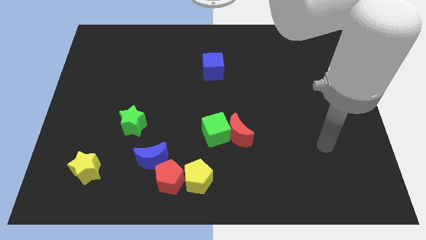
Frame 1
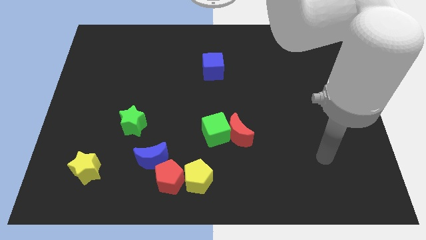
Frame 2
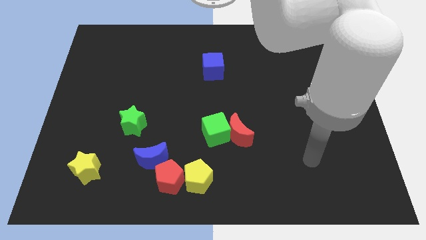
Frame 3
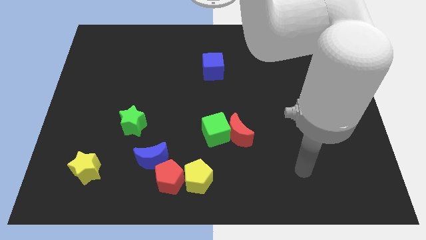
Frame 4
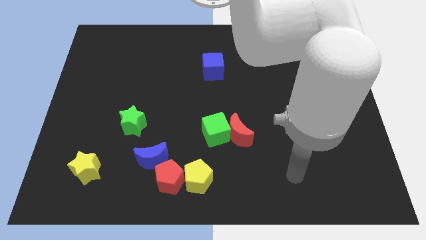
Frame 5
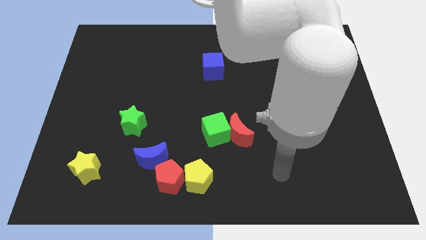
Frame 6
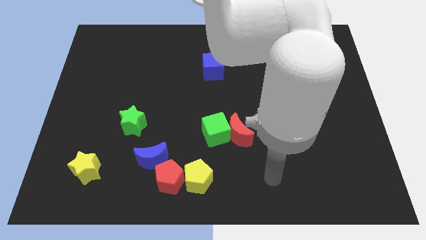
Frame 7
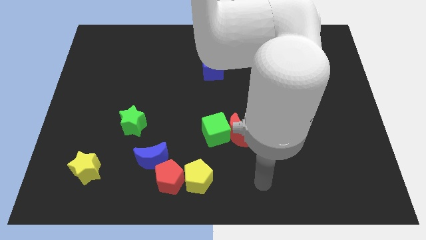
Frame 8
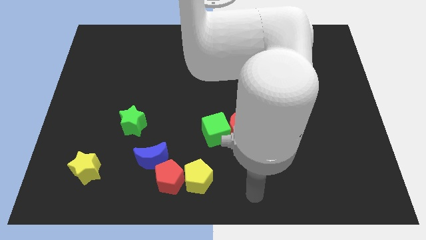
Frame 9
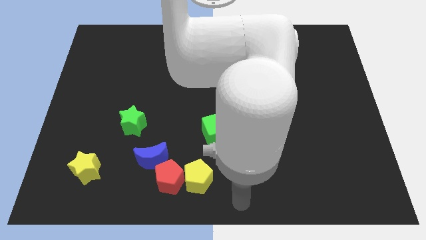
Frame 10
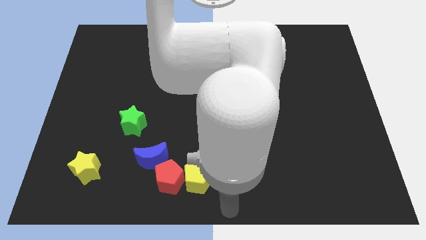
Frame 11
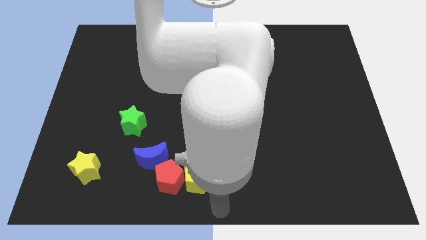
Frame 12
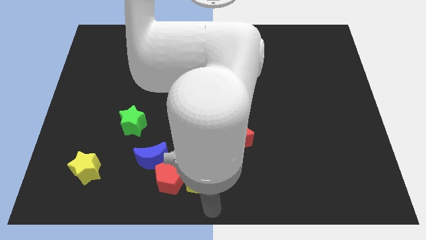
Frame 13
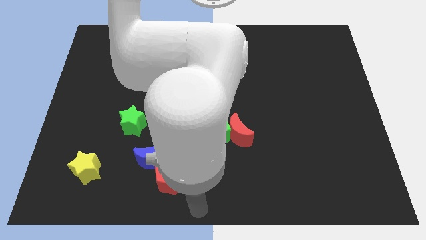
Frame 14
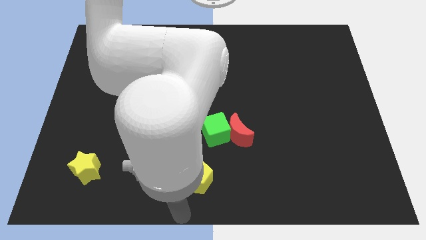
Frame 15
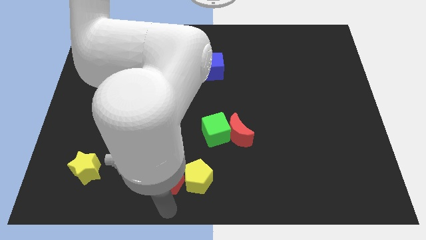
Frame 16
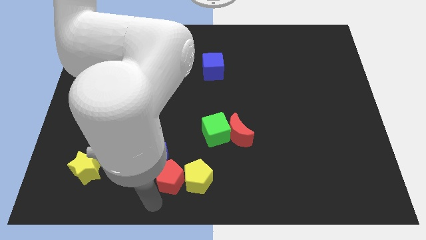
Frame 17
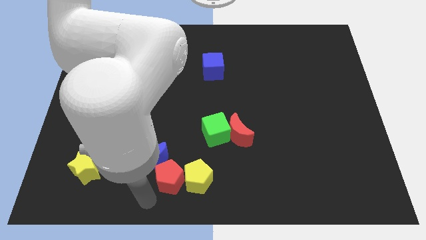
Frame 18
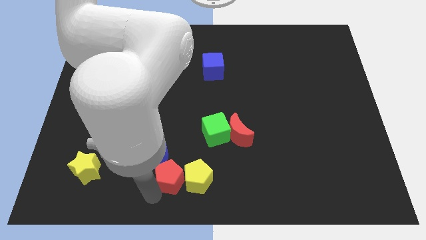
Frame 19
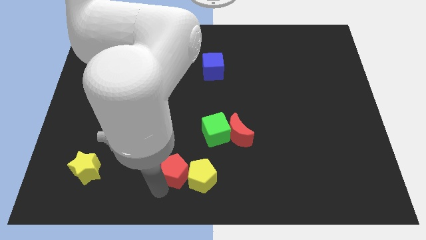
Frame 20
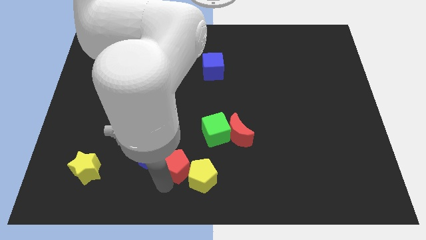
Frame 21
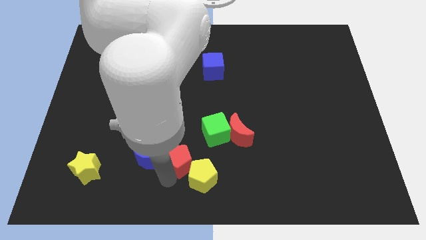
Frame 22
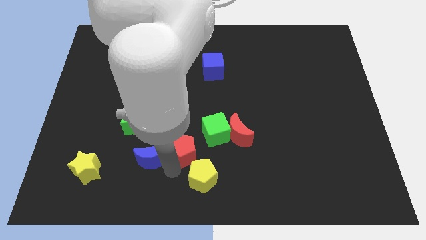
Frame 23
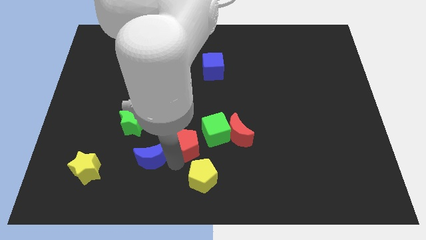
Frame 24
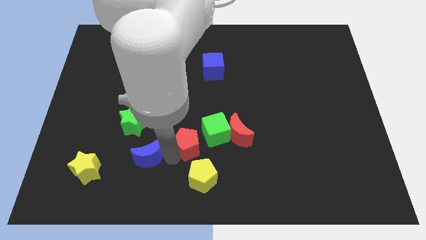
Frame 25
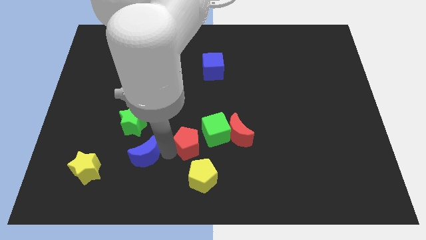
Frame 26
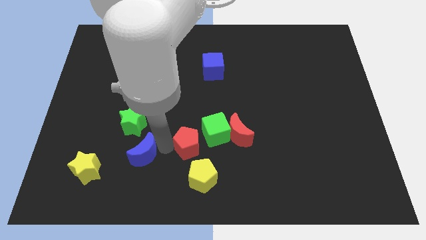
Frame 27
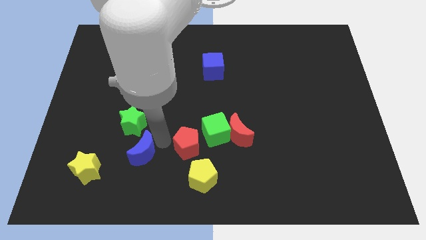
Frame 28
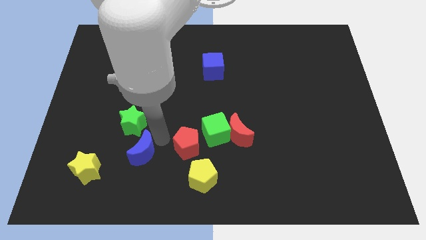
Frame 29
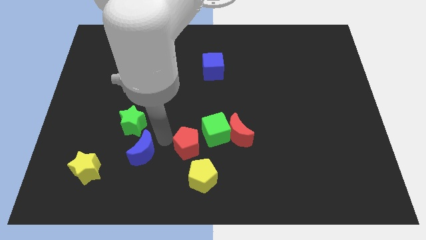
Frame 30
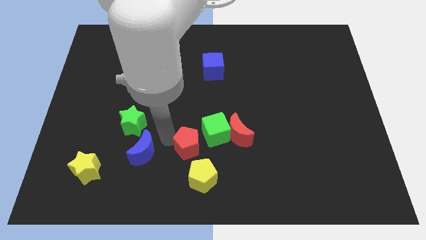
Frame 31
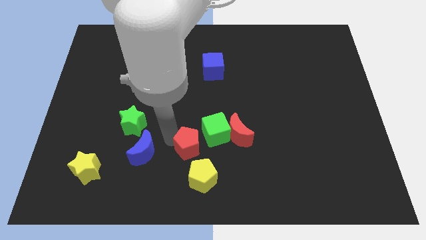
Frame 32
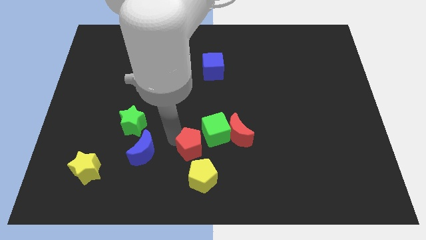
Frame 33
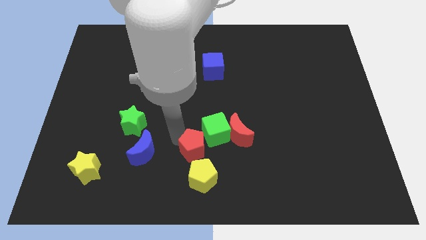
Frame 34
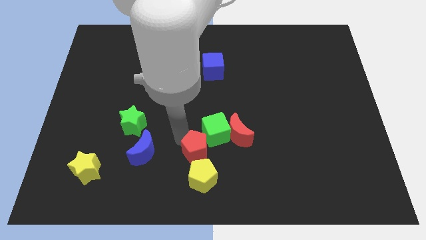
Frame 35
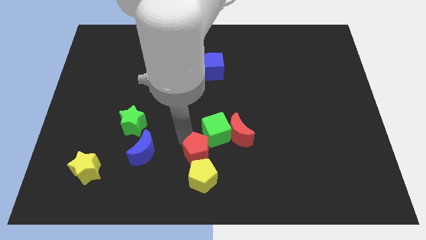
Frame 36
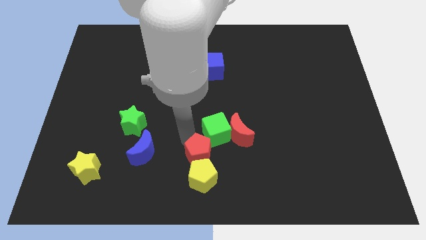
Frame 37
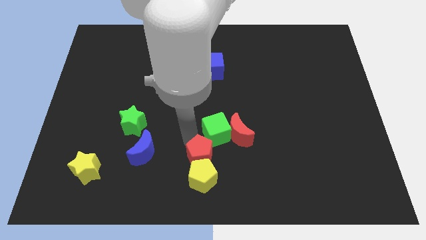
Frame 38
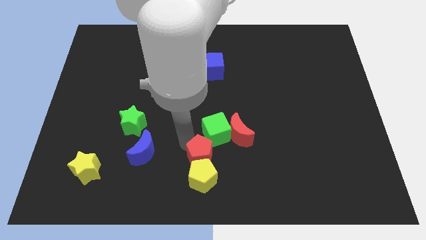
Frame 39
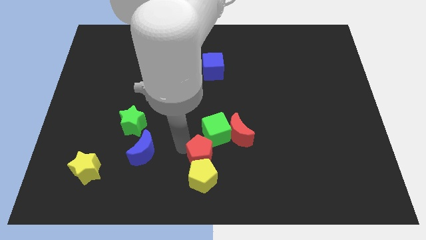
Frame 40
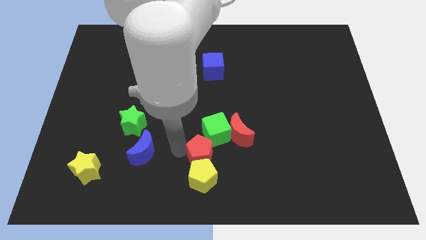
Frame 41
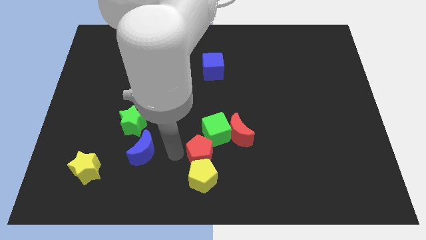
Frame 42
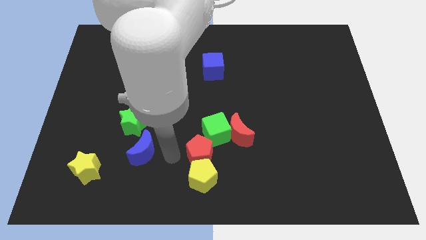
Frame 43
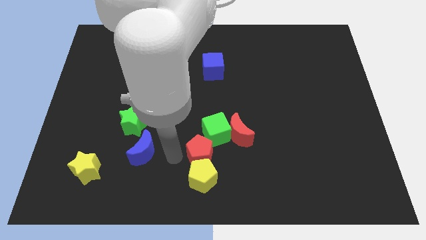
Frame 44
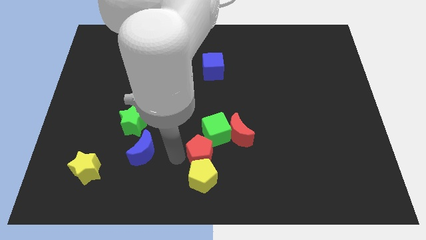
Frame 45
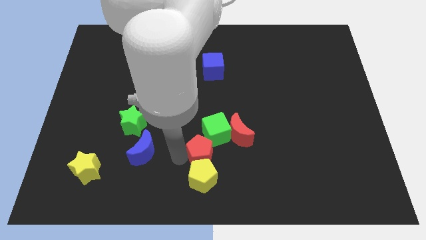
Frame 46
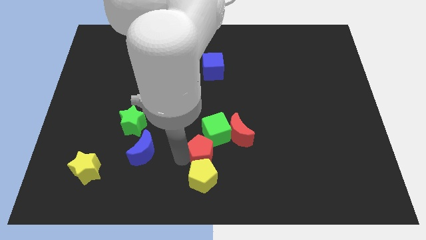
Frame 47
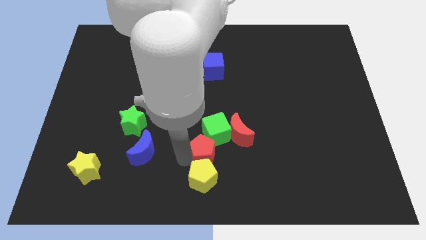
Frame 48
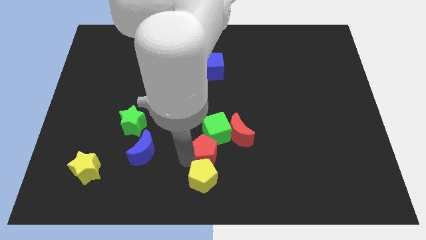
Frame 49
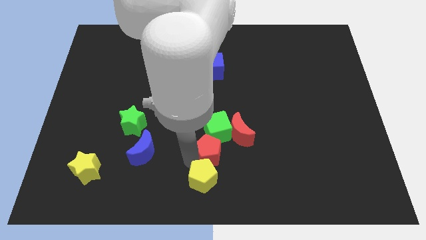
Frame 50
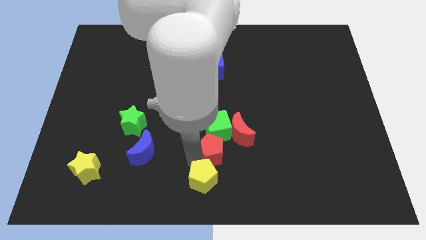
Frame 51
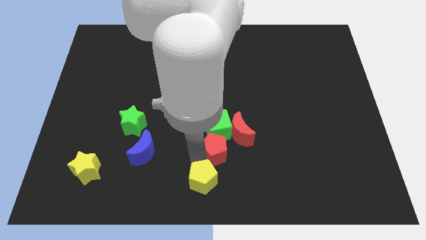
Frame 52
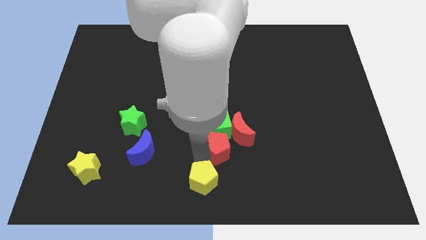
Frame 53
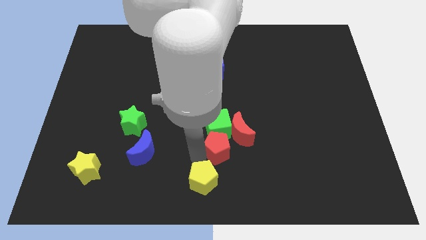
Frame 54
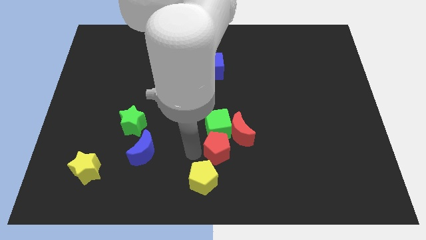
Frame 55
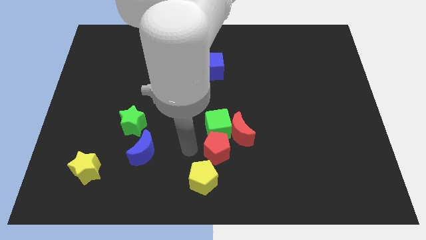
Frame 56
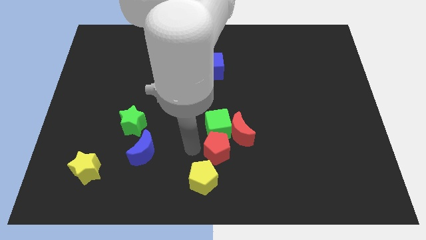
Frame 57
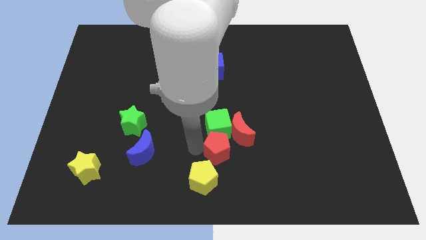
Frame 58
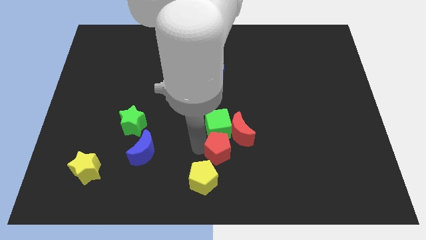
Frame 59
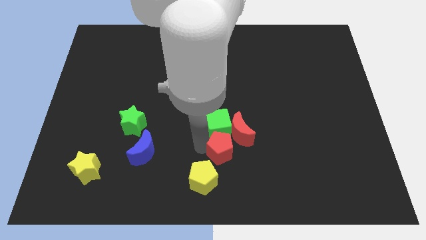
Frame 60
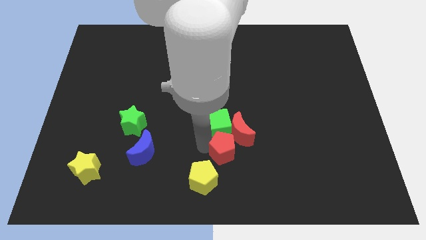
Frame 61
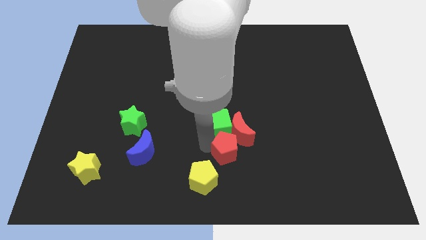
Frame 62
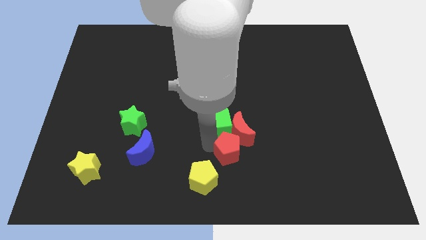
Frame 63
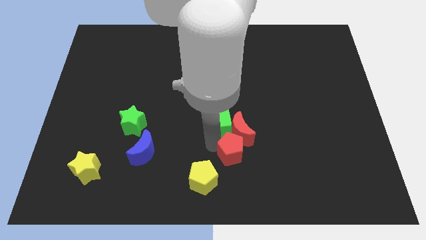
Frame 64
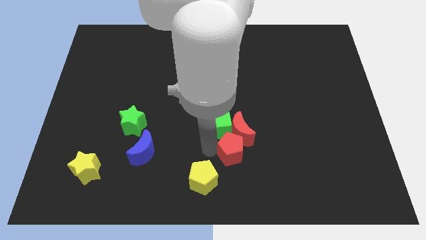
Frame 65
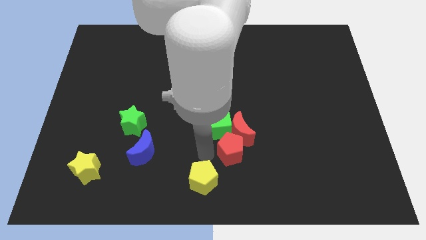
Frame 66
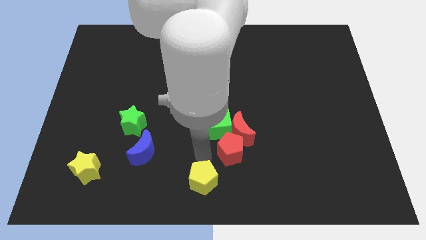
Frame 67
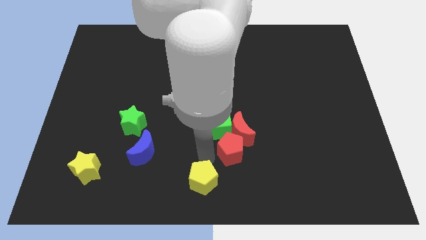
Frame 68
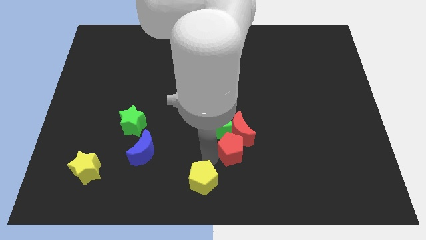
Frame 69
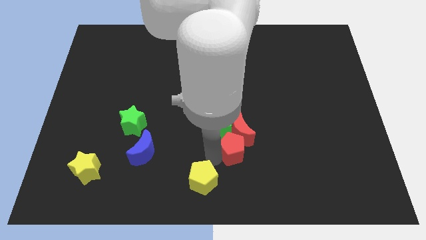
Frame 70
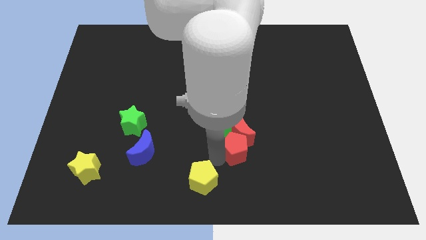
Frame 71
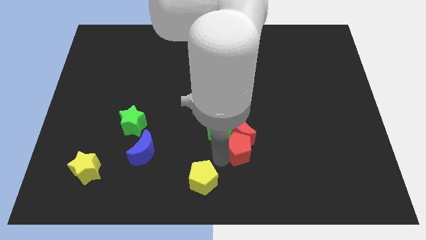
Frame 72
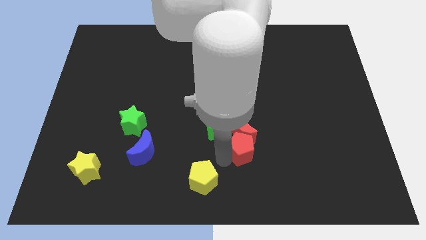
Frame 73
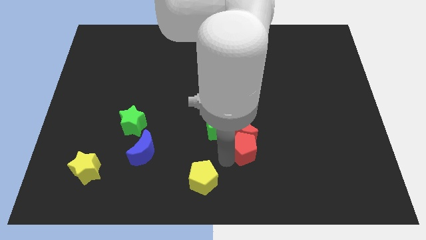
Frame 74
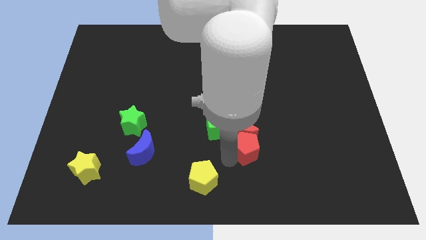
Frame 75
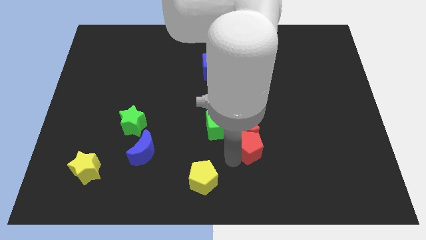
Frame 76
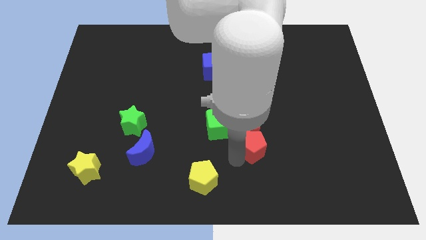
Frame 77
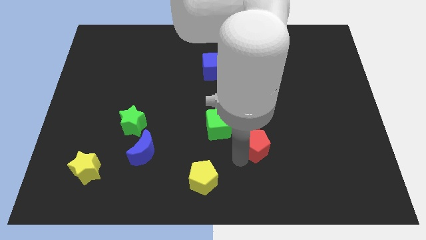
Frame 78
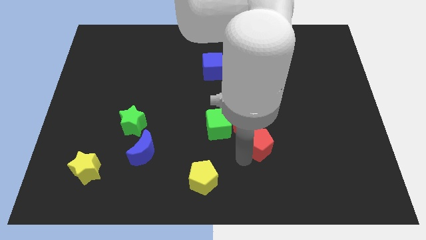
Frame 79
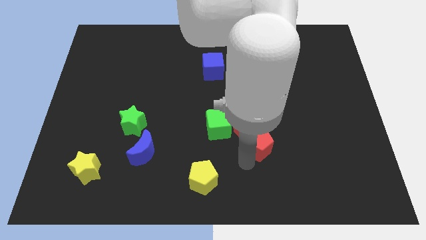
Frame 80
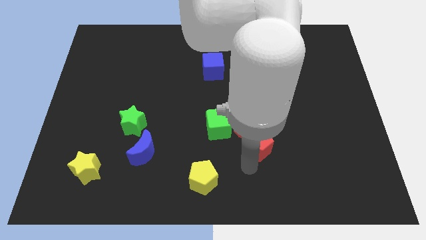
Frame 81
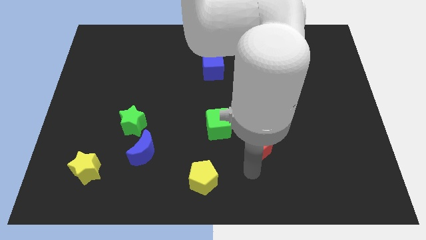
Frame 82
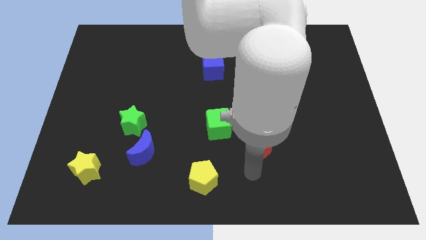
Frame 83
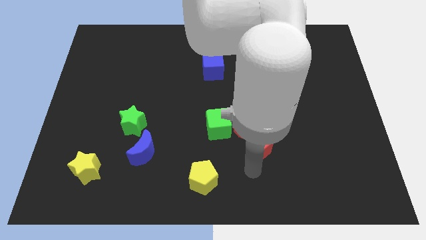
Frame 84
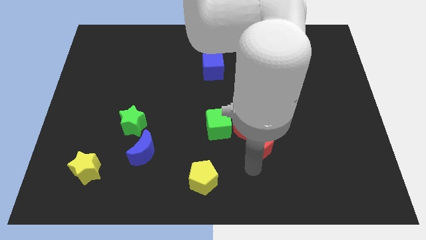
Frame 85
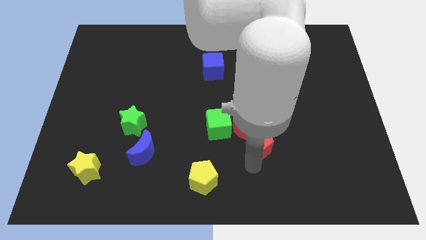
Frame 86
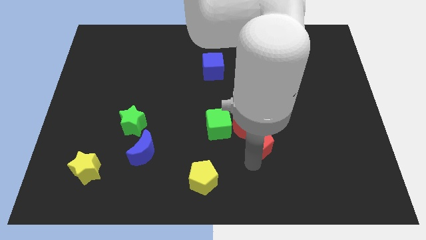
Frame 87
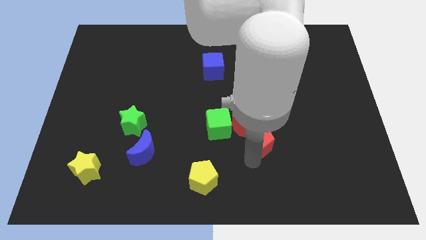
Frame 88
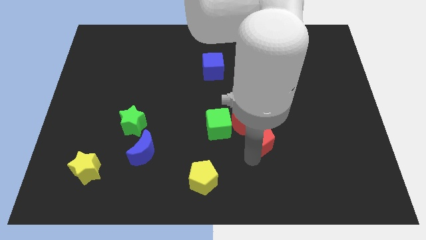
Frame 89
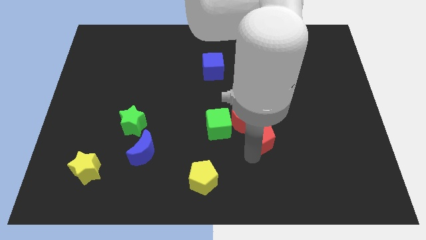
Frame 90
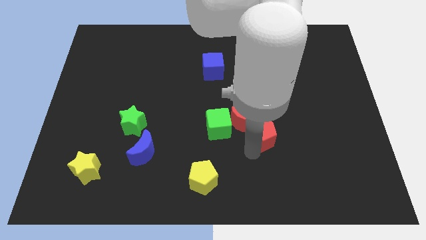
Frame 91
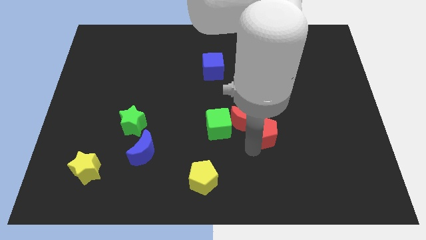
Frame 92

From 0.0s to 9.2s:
move the red pentagon diagonally up and right
